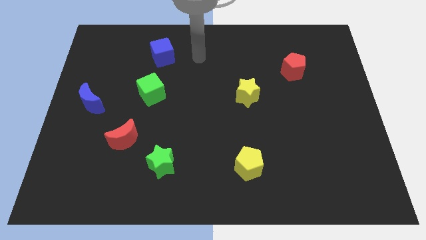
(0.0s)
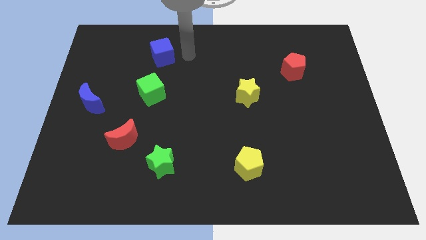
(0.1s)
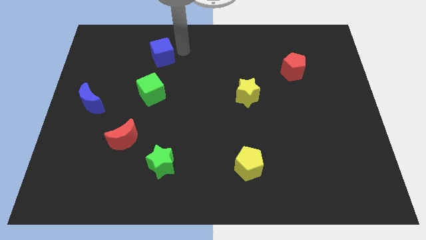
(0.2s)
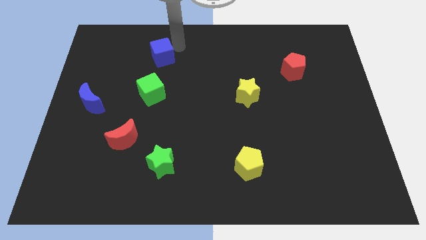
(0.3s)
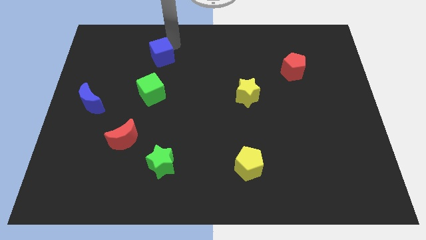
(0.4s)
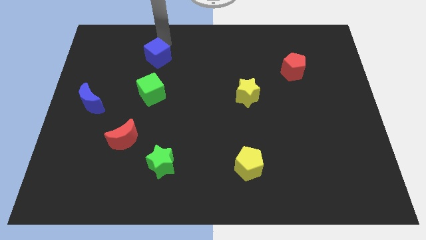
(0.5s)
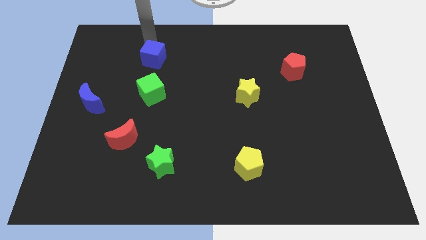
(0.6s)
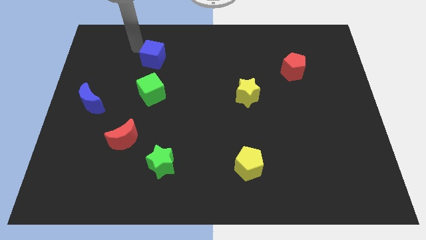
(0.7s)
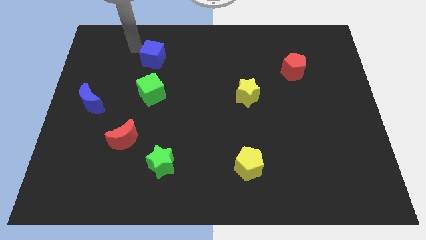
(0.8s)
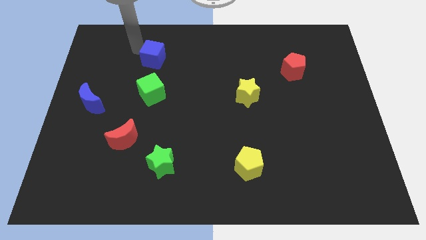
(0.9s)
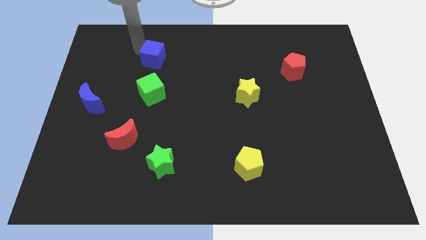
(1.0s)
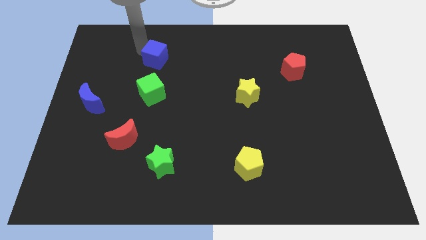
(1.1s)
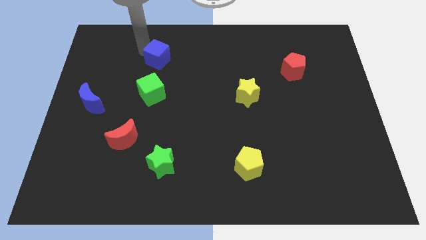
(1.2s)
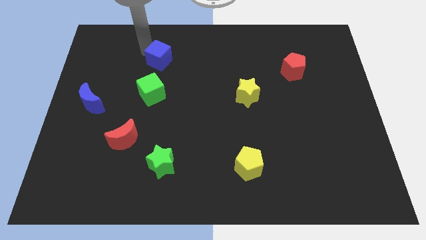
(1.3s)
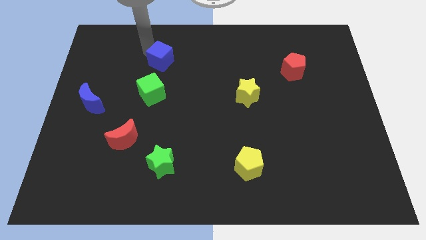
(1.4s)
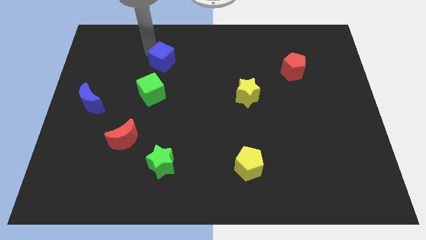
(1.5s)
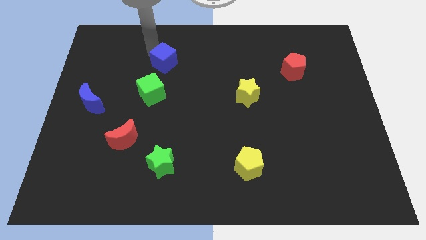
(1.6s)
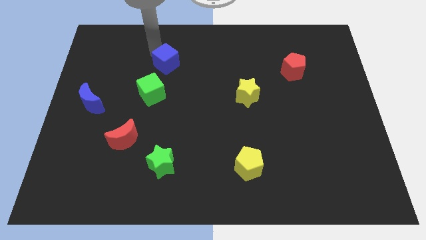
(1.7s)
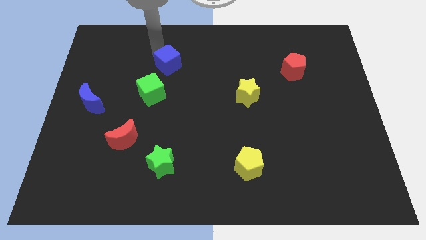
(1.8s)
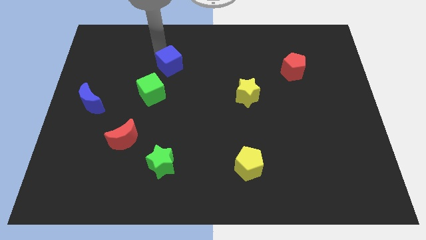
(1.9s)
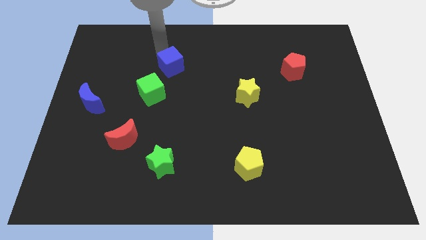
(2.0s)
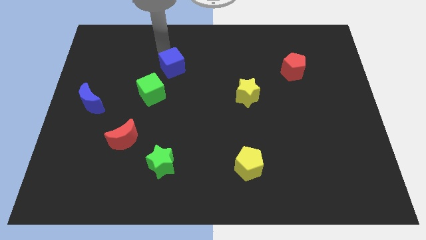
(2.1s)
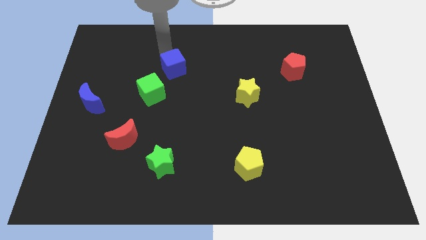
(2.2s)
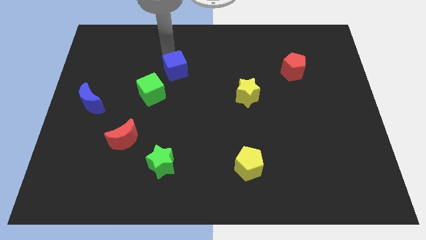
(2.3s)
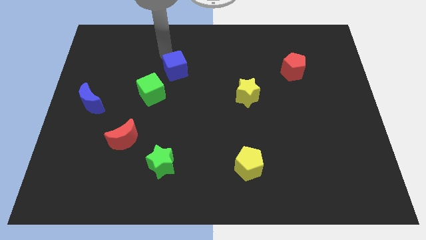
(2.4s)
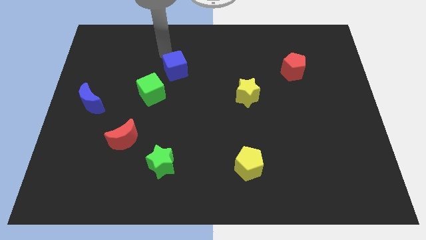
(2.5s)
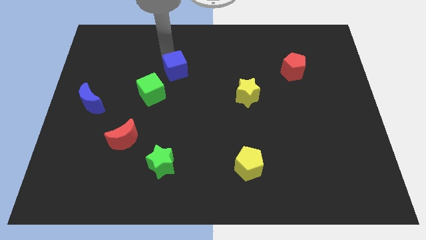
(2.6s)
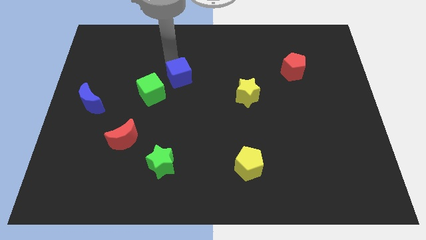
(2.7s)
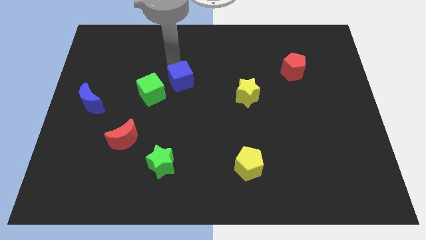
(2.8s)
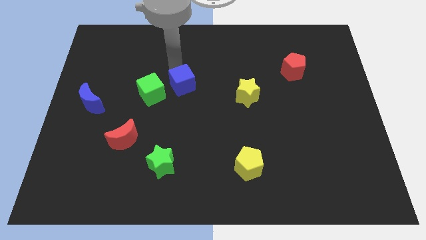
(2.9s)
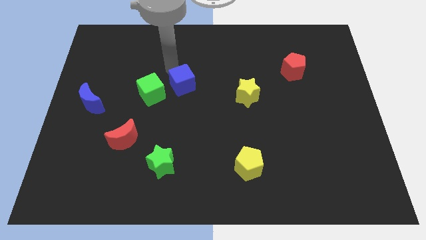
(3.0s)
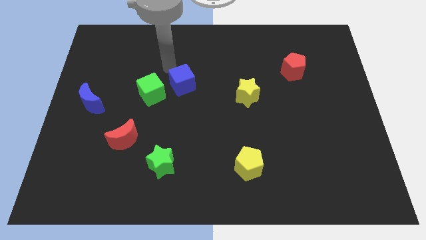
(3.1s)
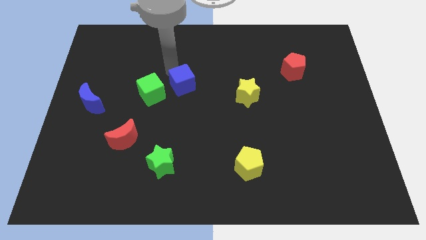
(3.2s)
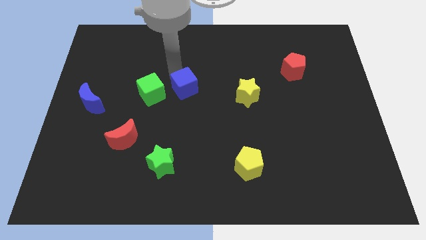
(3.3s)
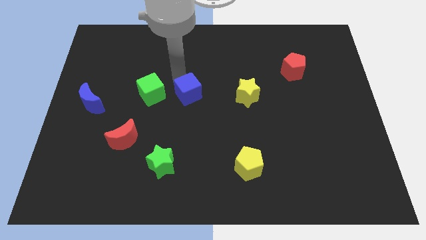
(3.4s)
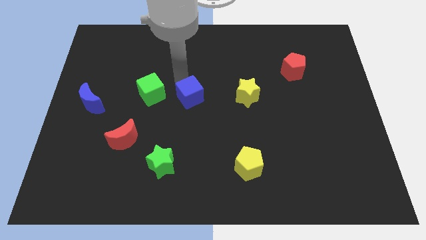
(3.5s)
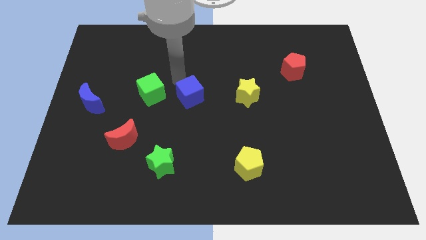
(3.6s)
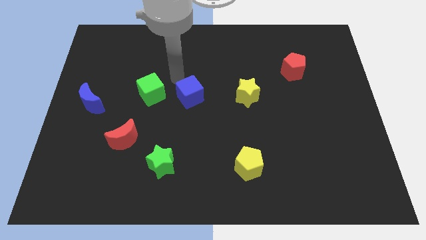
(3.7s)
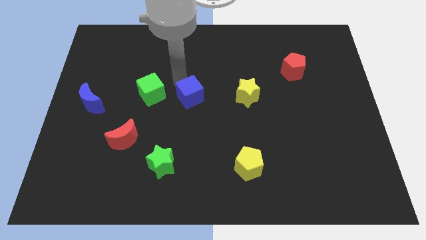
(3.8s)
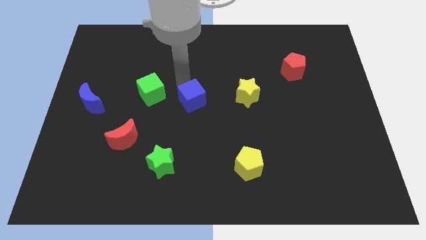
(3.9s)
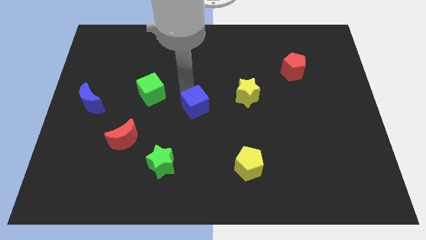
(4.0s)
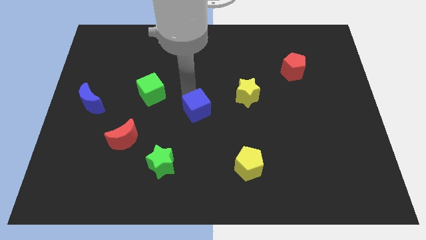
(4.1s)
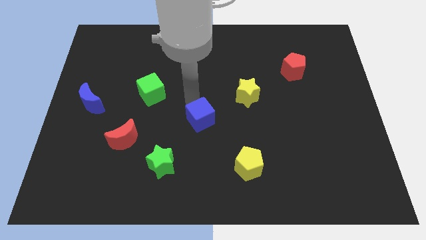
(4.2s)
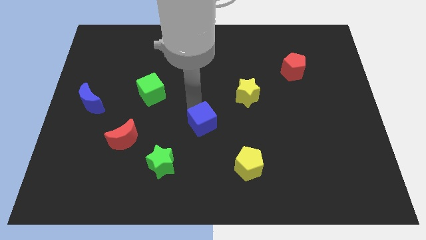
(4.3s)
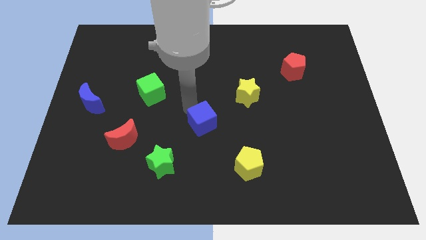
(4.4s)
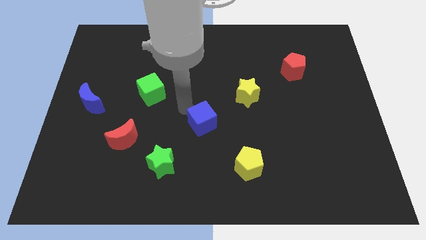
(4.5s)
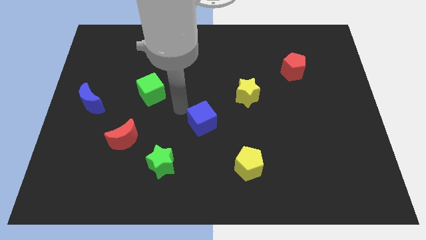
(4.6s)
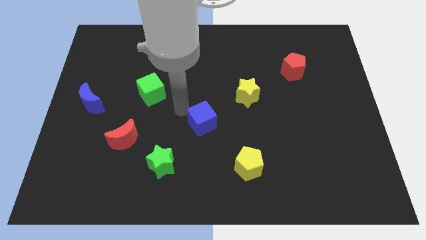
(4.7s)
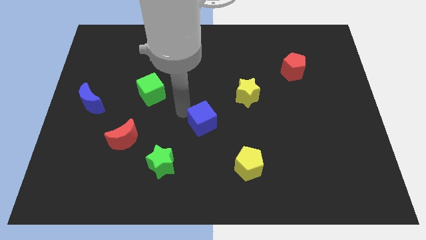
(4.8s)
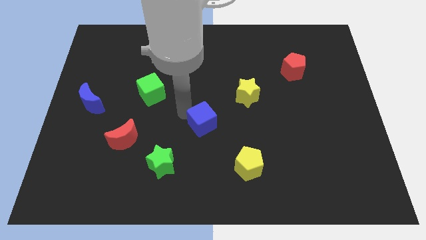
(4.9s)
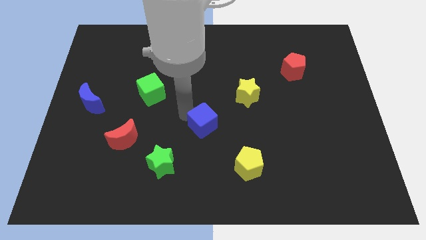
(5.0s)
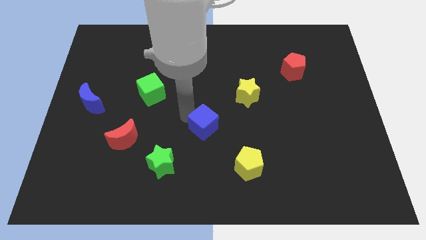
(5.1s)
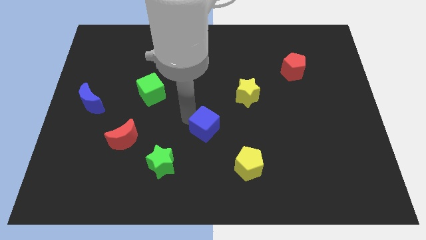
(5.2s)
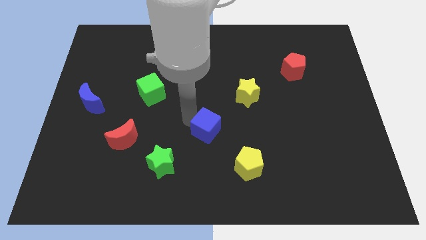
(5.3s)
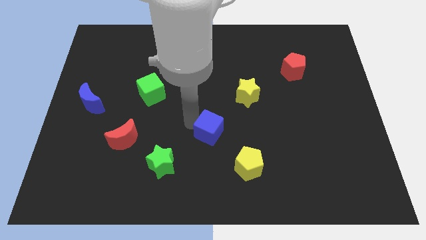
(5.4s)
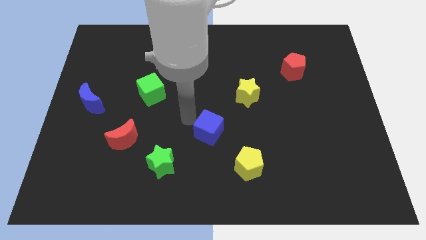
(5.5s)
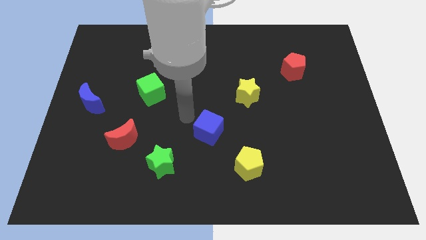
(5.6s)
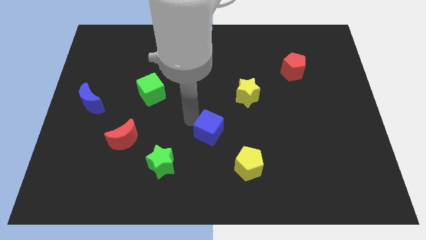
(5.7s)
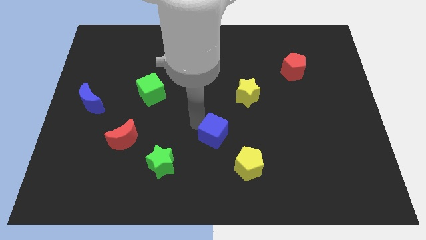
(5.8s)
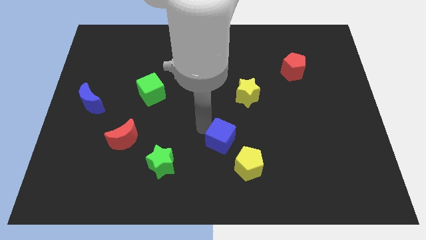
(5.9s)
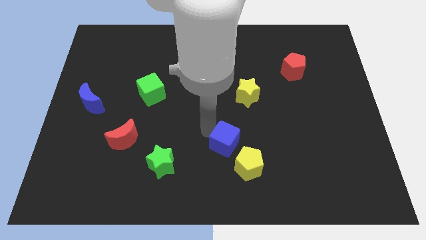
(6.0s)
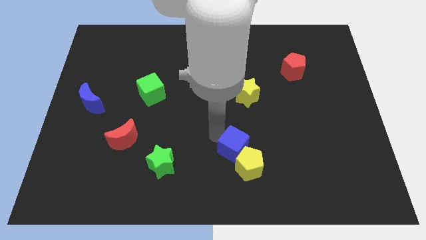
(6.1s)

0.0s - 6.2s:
push the blue cube next to the yellow pentagon
